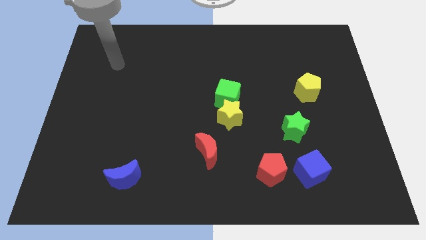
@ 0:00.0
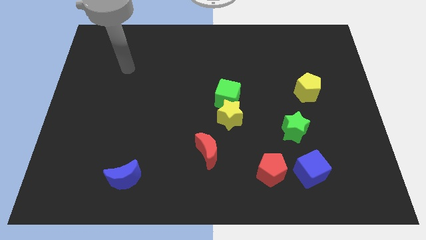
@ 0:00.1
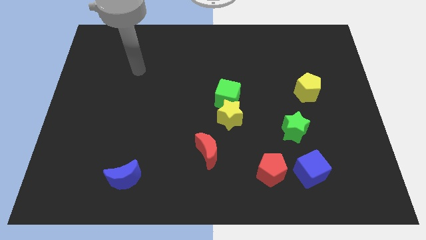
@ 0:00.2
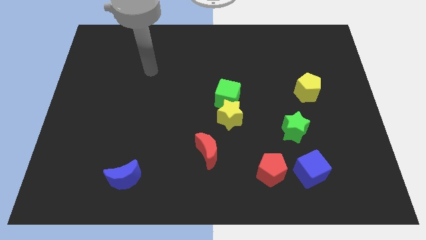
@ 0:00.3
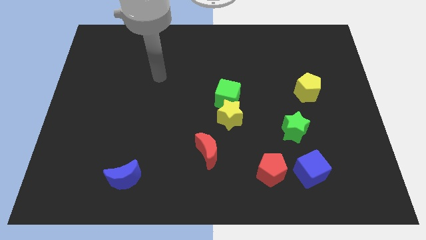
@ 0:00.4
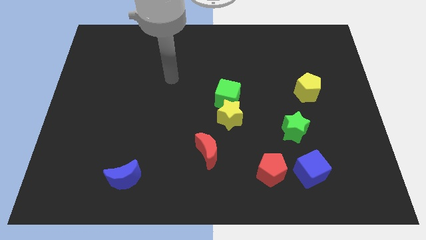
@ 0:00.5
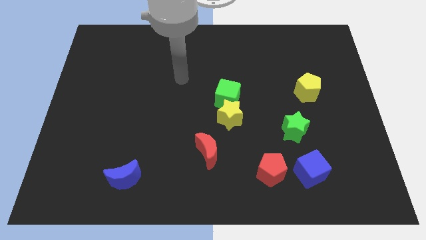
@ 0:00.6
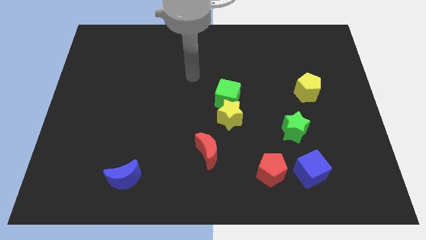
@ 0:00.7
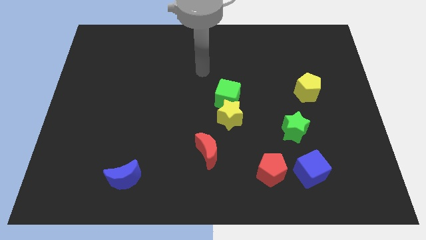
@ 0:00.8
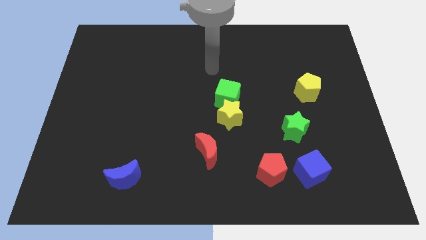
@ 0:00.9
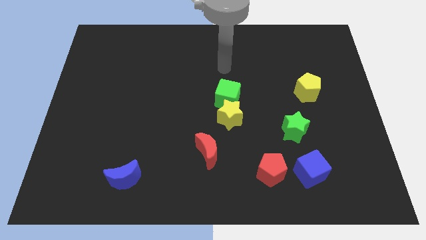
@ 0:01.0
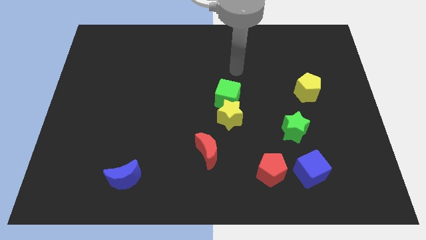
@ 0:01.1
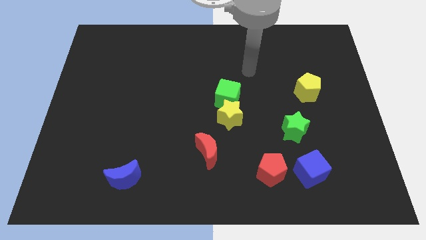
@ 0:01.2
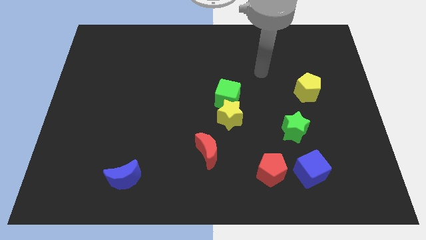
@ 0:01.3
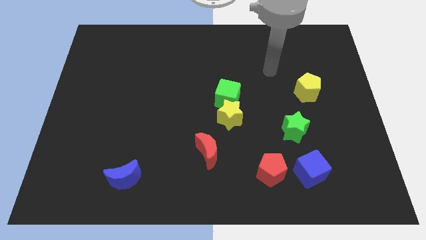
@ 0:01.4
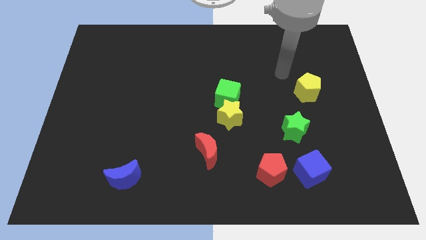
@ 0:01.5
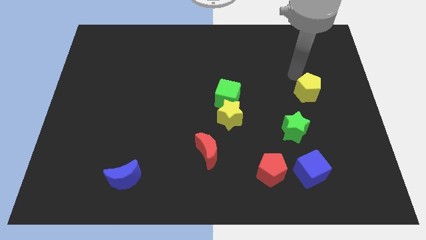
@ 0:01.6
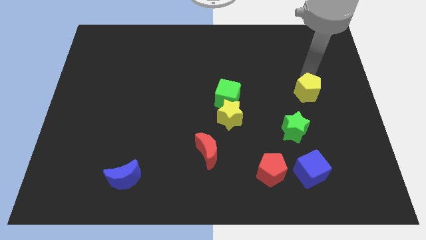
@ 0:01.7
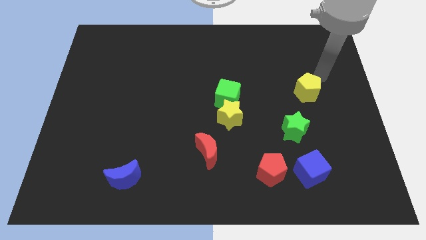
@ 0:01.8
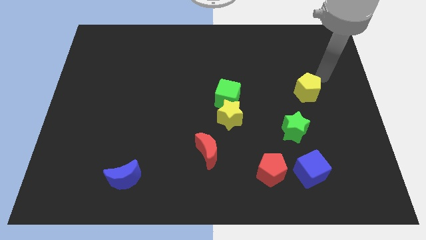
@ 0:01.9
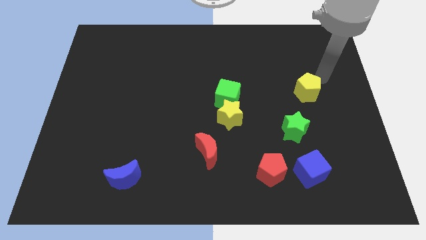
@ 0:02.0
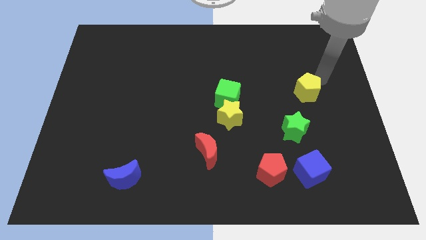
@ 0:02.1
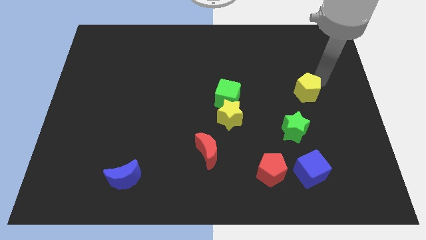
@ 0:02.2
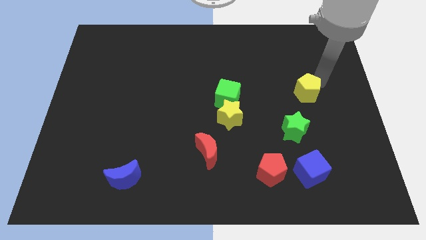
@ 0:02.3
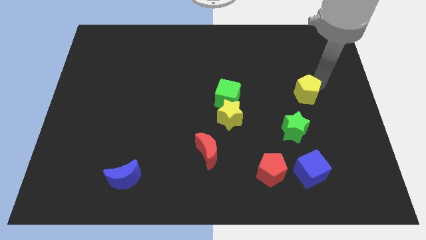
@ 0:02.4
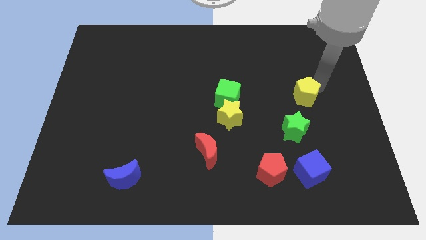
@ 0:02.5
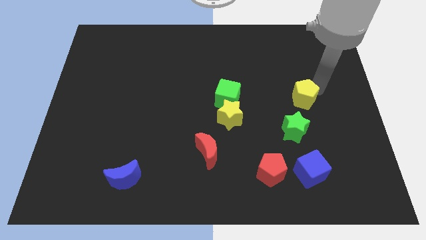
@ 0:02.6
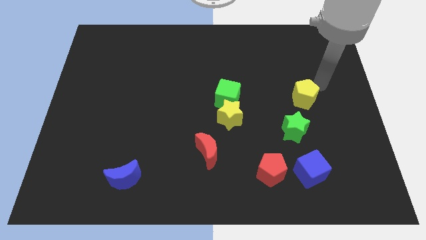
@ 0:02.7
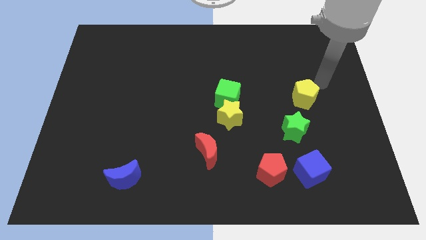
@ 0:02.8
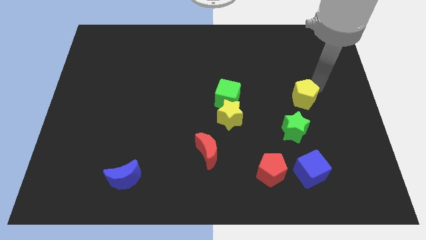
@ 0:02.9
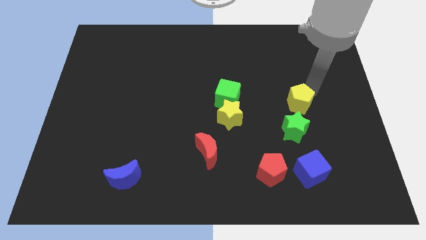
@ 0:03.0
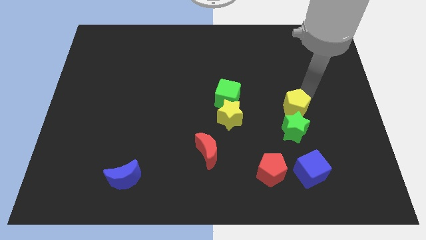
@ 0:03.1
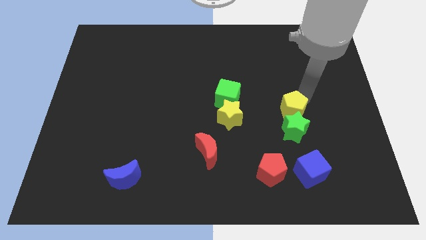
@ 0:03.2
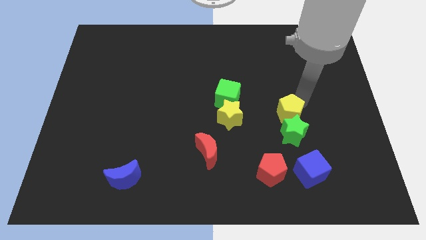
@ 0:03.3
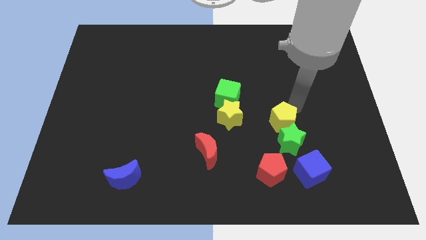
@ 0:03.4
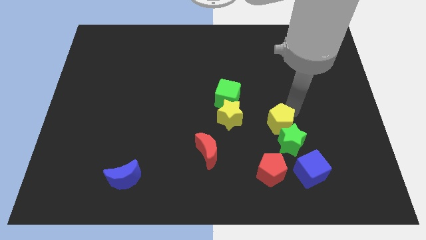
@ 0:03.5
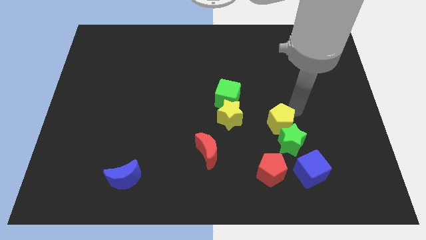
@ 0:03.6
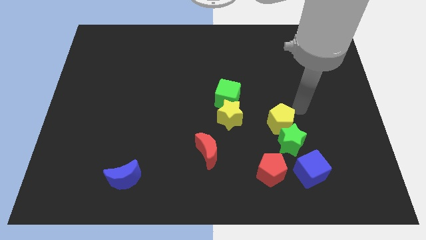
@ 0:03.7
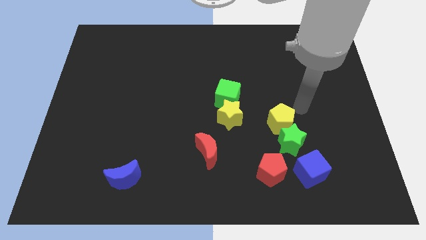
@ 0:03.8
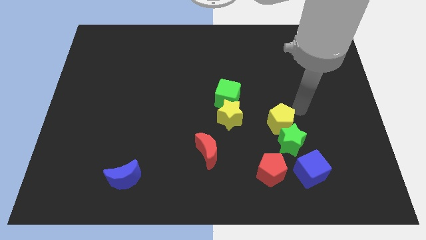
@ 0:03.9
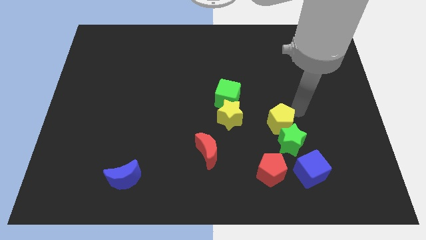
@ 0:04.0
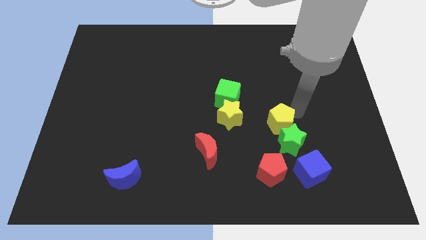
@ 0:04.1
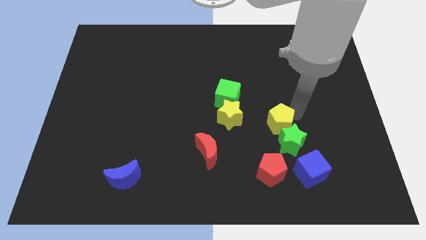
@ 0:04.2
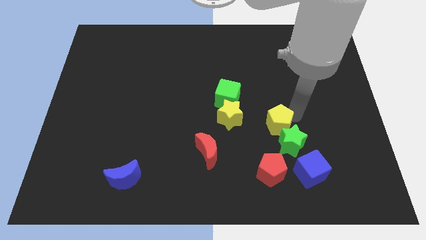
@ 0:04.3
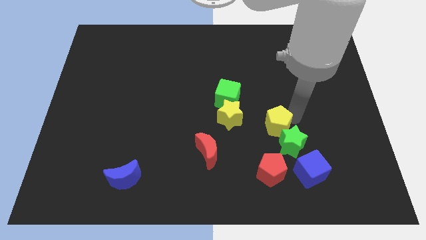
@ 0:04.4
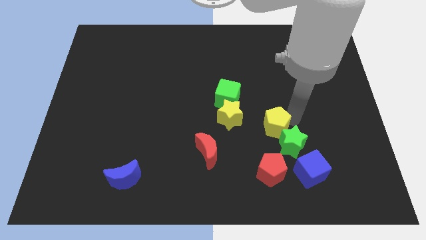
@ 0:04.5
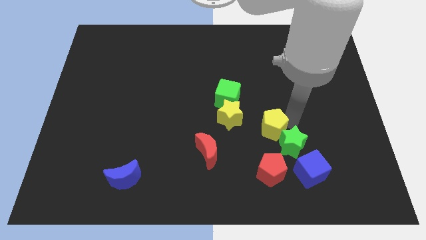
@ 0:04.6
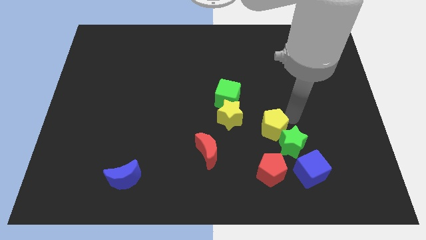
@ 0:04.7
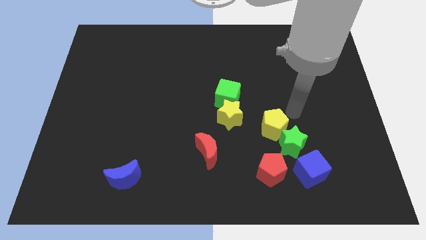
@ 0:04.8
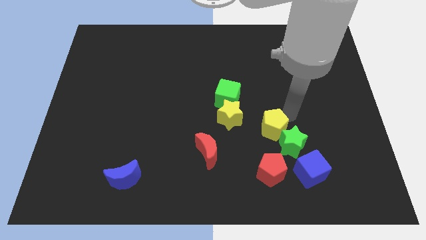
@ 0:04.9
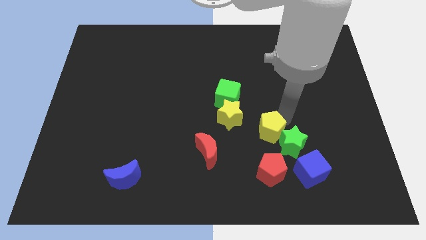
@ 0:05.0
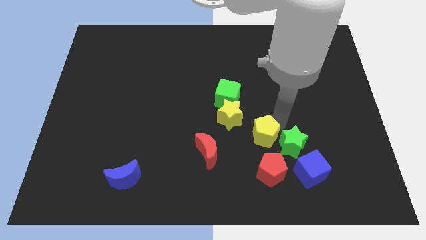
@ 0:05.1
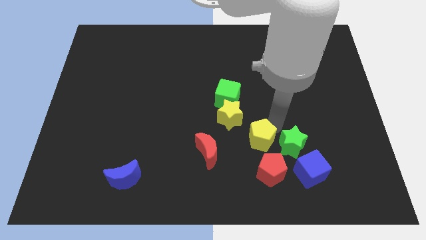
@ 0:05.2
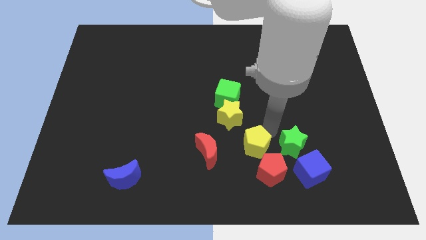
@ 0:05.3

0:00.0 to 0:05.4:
move the yellow pentagon downwards and to the left

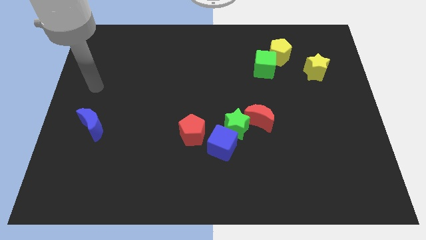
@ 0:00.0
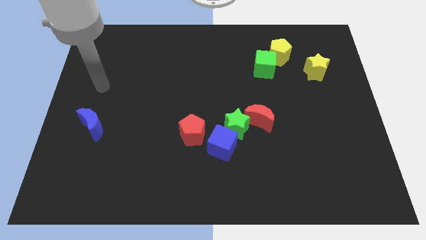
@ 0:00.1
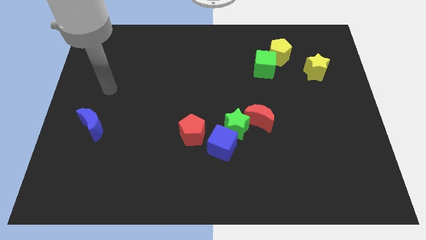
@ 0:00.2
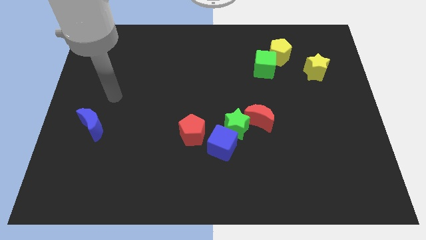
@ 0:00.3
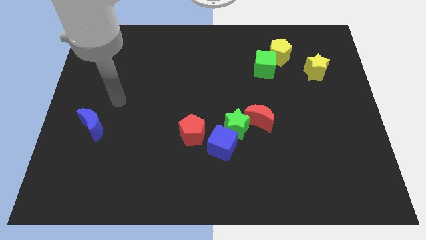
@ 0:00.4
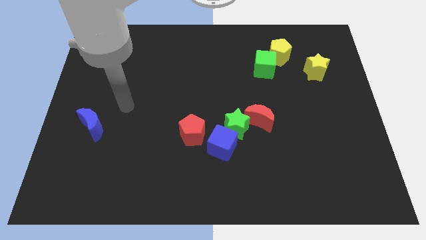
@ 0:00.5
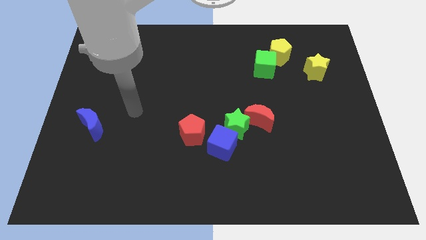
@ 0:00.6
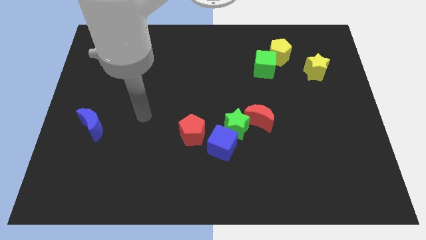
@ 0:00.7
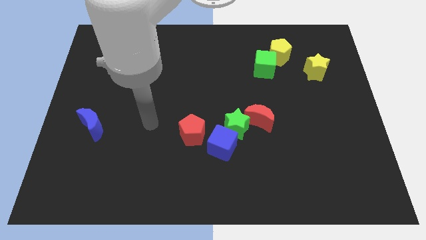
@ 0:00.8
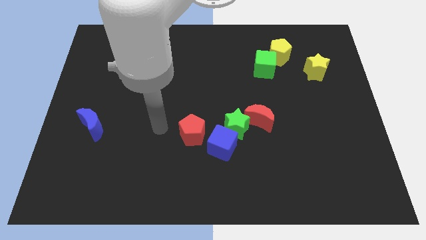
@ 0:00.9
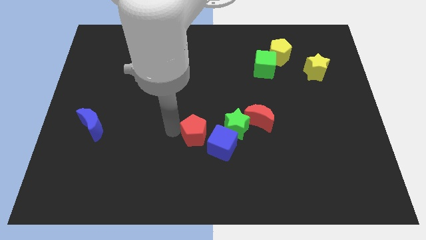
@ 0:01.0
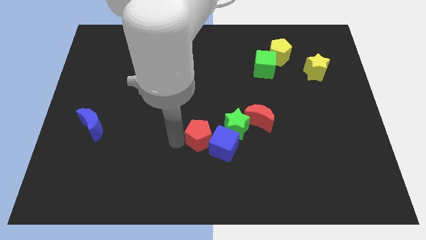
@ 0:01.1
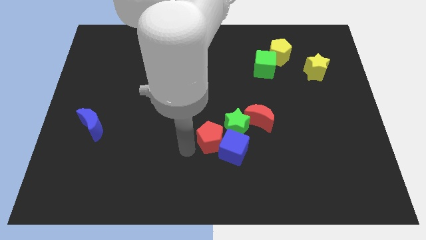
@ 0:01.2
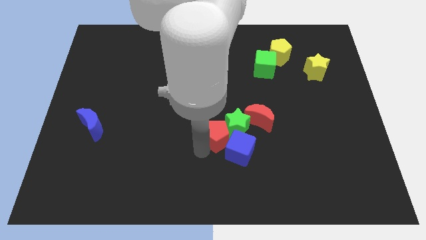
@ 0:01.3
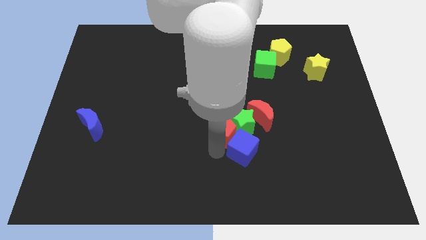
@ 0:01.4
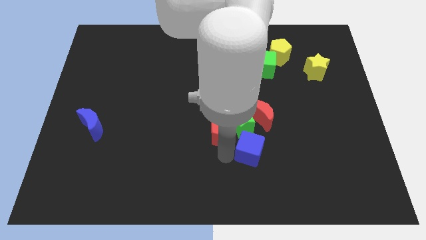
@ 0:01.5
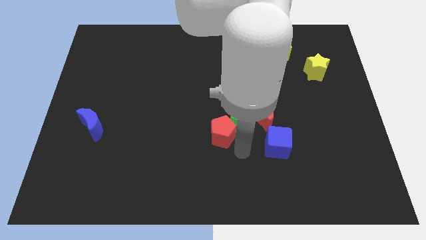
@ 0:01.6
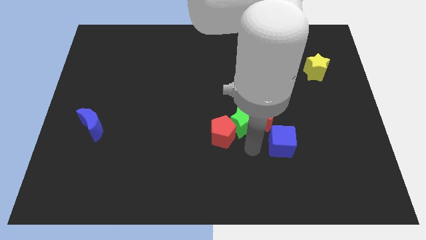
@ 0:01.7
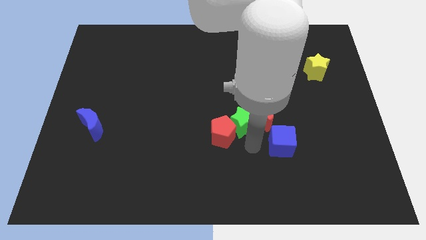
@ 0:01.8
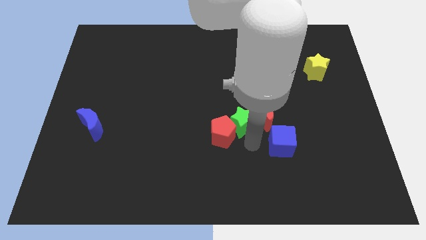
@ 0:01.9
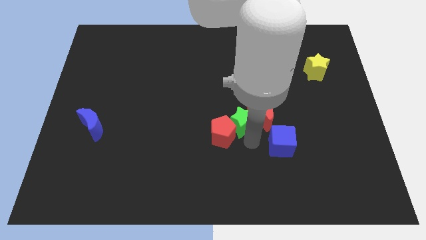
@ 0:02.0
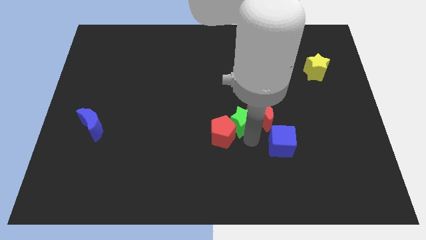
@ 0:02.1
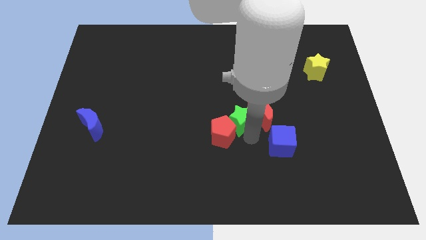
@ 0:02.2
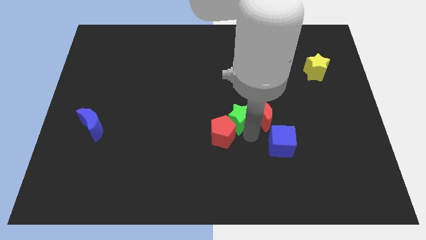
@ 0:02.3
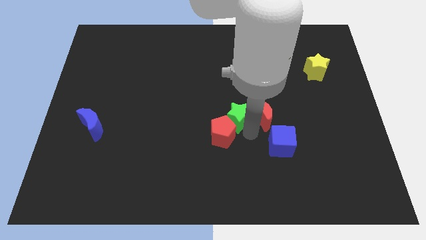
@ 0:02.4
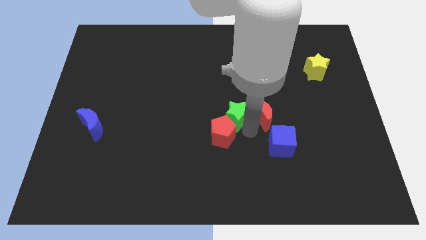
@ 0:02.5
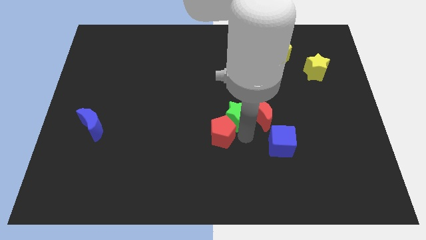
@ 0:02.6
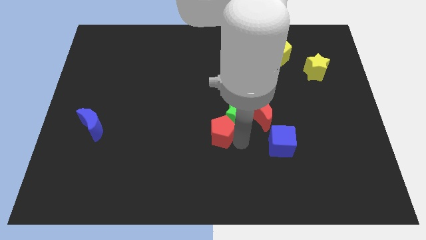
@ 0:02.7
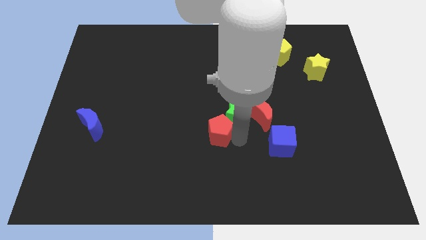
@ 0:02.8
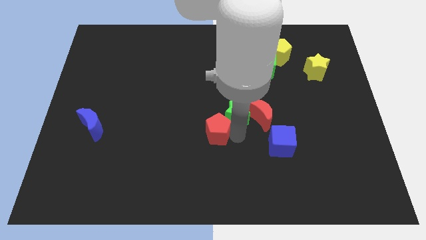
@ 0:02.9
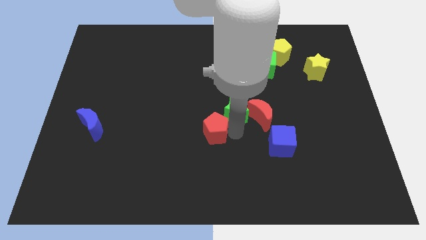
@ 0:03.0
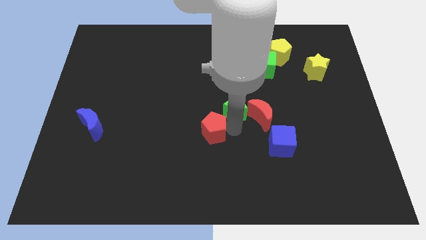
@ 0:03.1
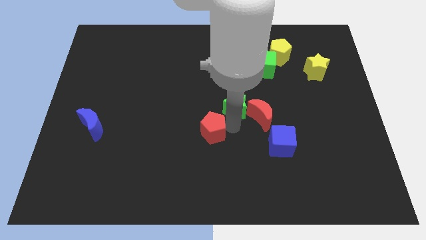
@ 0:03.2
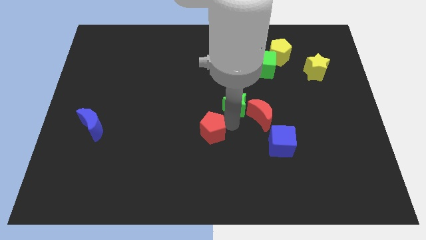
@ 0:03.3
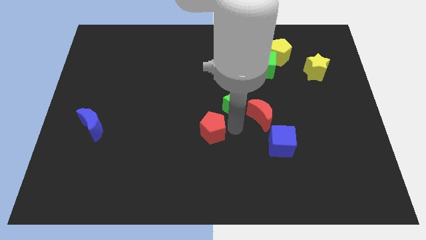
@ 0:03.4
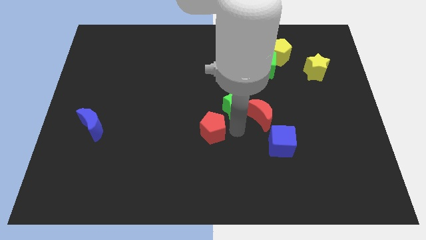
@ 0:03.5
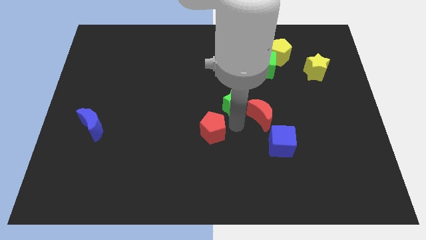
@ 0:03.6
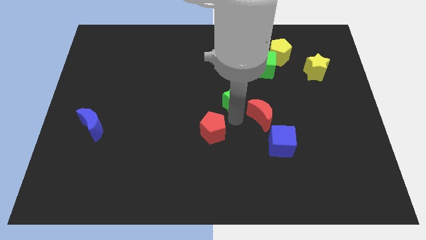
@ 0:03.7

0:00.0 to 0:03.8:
slide the green star somewhat upwards
